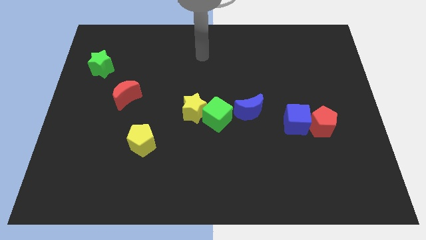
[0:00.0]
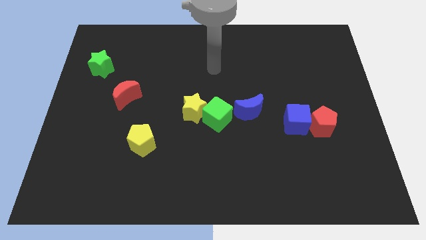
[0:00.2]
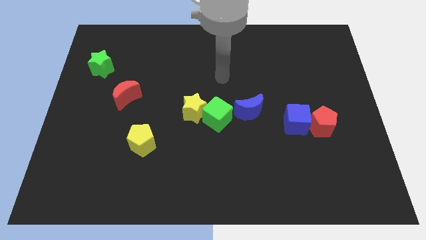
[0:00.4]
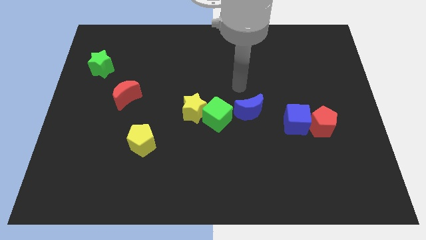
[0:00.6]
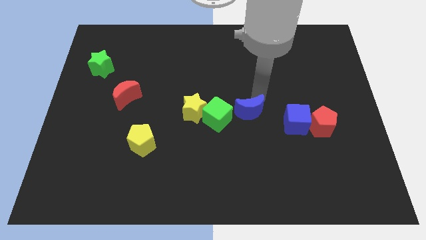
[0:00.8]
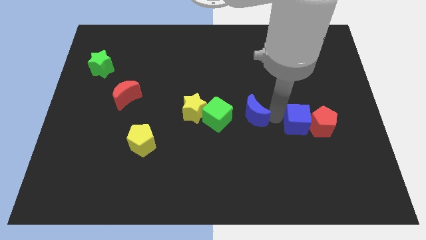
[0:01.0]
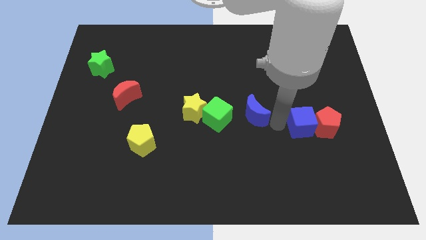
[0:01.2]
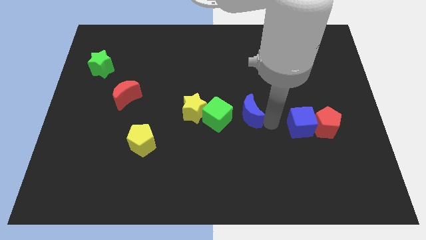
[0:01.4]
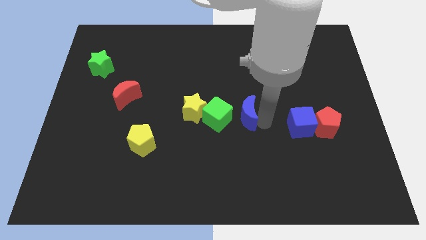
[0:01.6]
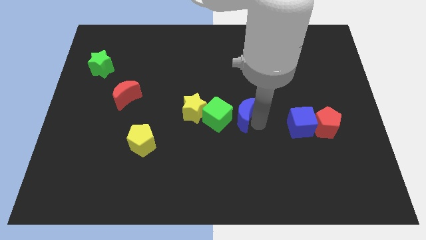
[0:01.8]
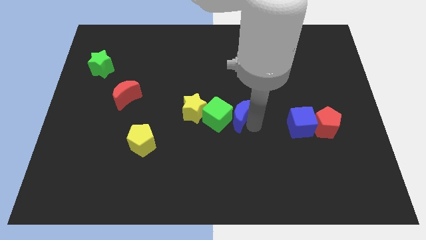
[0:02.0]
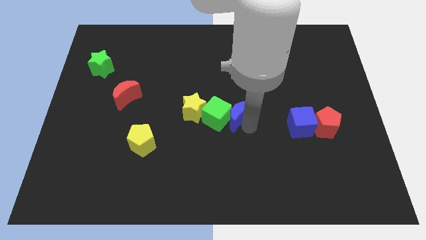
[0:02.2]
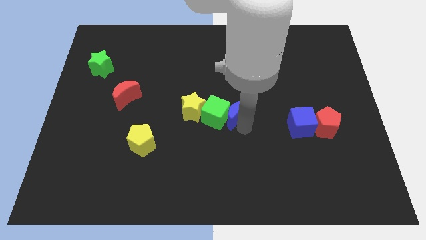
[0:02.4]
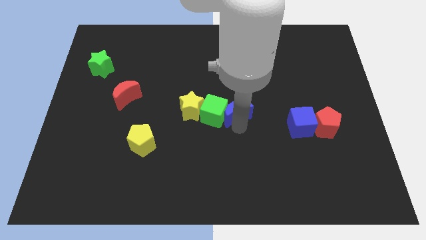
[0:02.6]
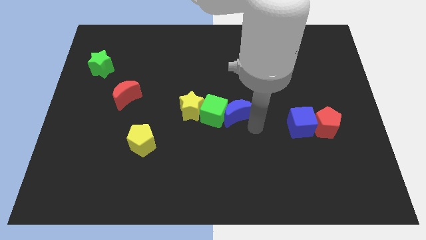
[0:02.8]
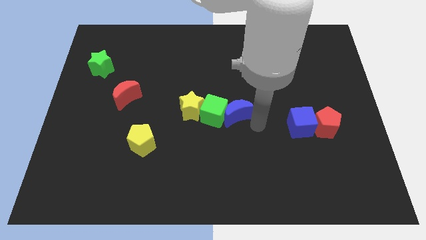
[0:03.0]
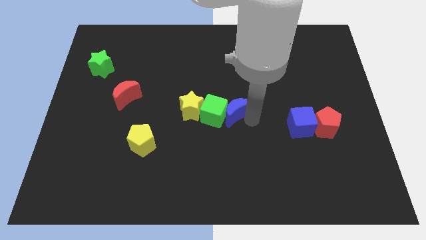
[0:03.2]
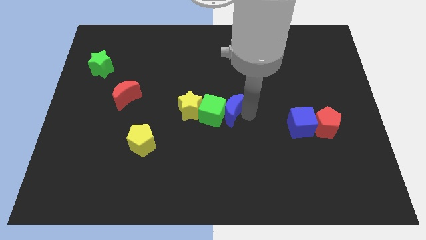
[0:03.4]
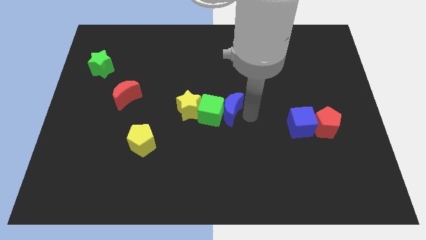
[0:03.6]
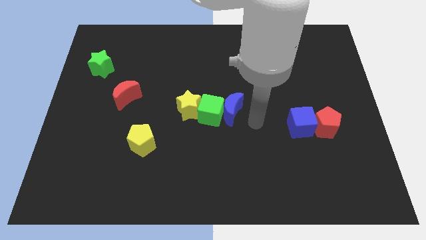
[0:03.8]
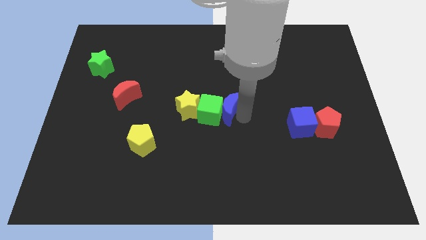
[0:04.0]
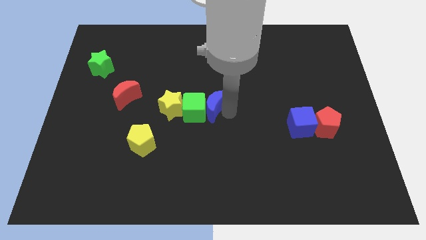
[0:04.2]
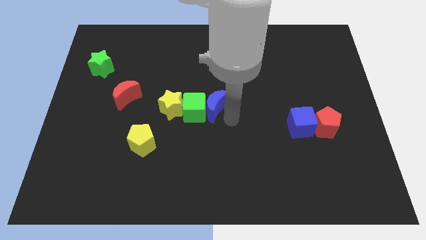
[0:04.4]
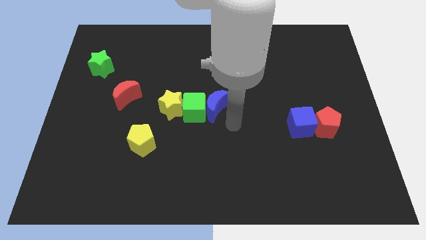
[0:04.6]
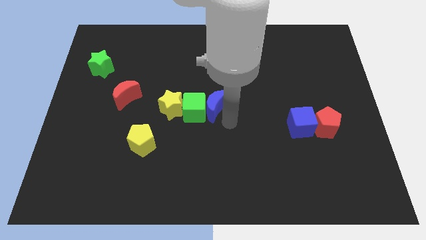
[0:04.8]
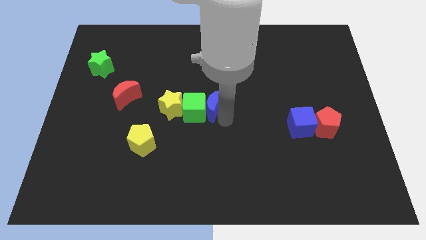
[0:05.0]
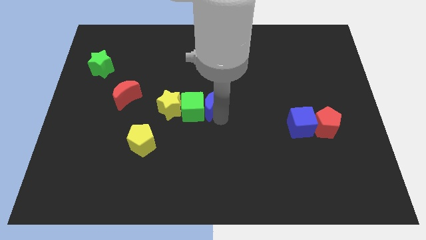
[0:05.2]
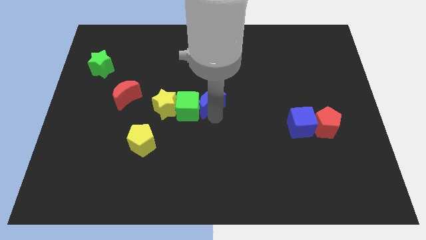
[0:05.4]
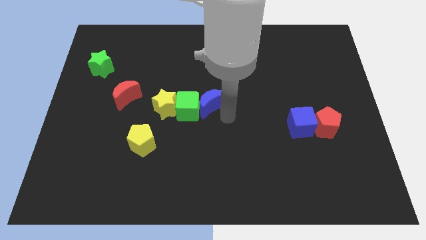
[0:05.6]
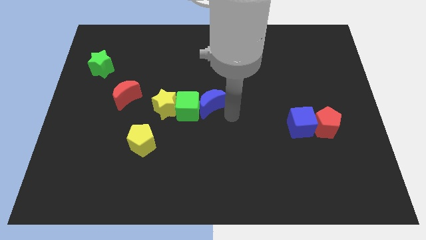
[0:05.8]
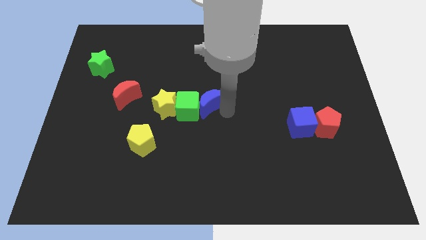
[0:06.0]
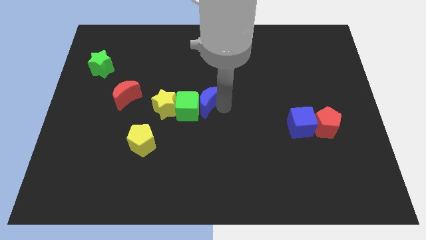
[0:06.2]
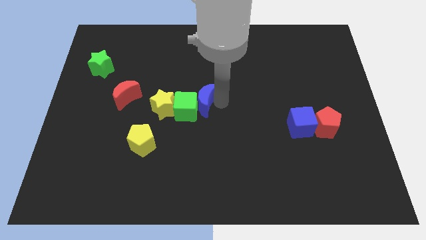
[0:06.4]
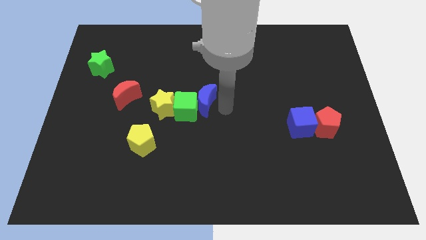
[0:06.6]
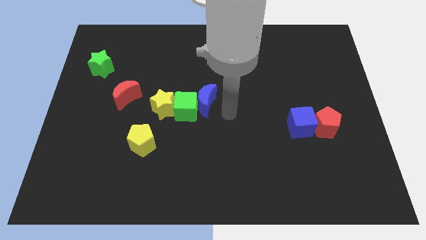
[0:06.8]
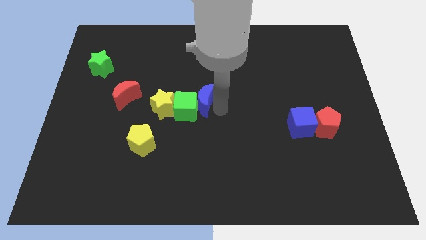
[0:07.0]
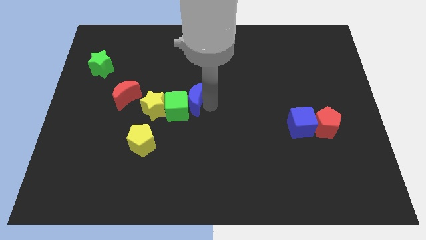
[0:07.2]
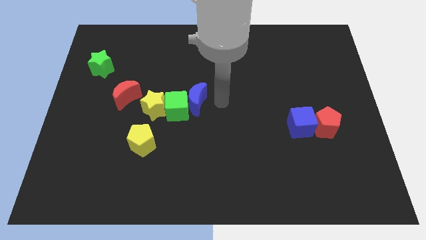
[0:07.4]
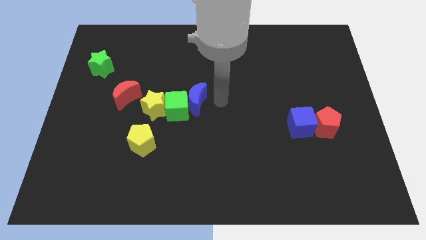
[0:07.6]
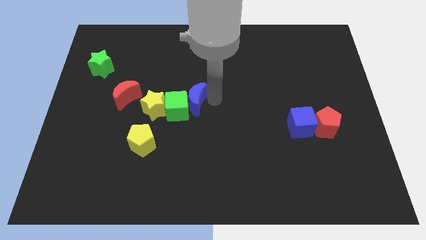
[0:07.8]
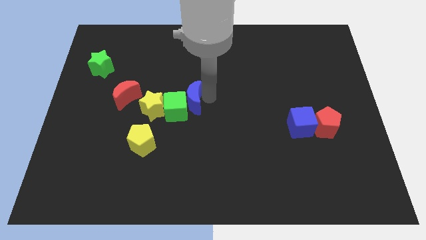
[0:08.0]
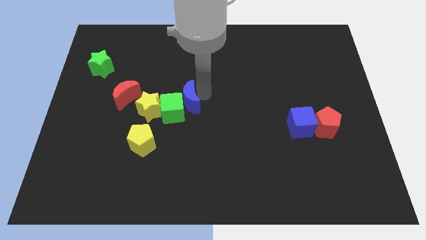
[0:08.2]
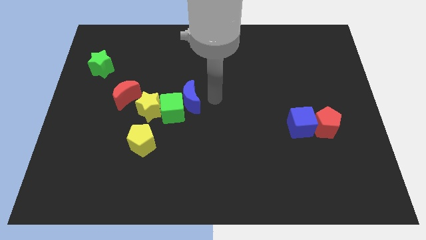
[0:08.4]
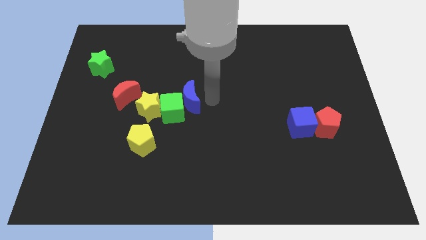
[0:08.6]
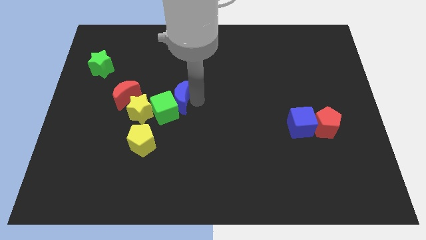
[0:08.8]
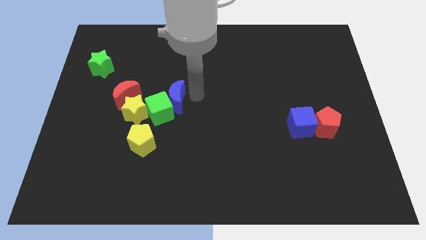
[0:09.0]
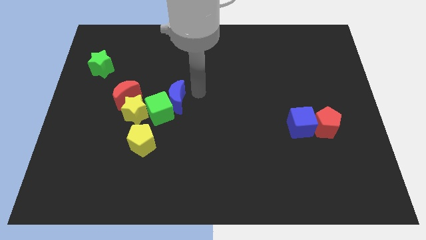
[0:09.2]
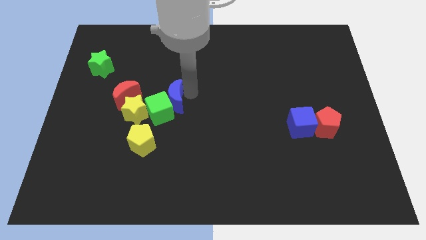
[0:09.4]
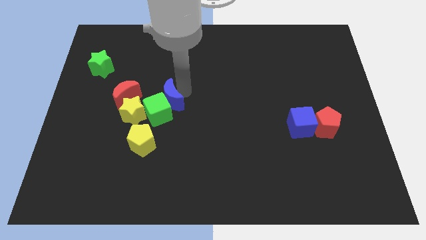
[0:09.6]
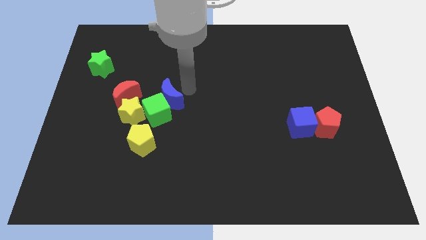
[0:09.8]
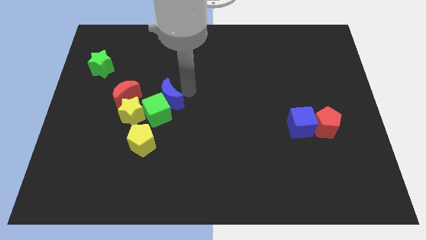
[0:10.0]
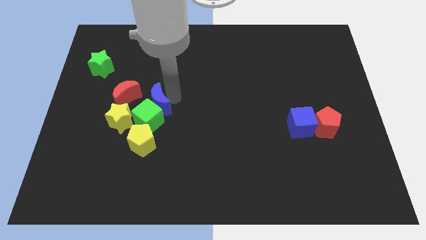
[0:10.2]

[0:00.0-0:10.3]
slide the blue moon left

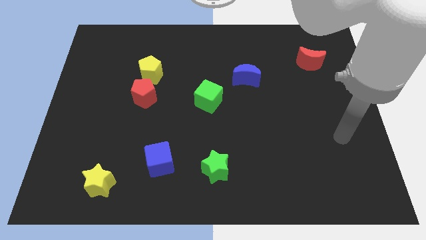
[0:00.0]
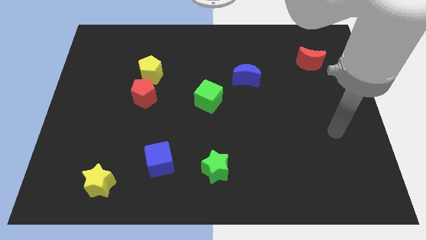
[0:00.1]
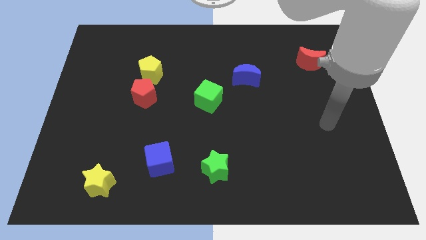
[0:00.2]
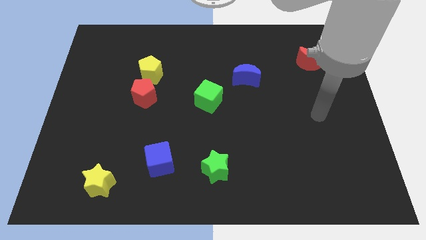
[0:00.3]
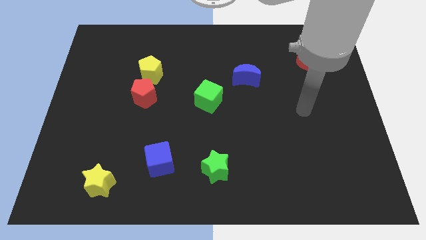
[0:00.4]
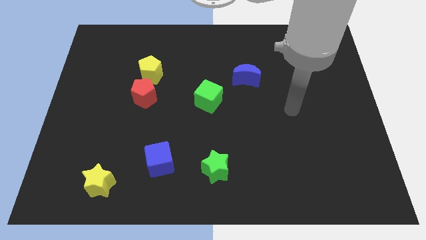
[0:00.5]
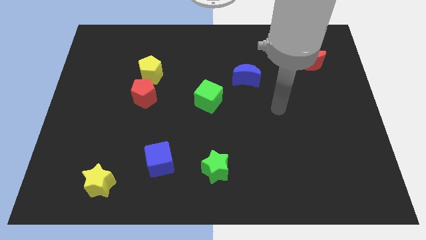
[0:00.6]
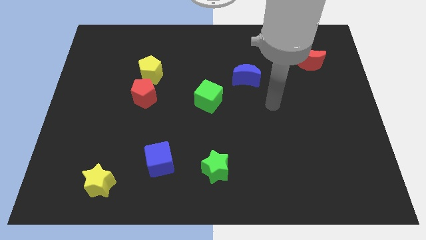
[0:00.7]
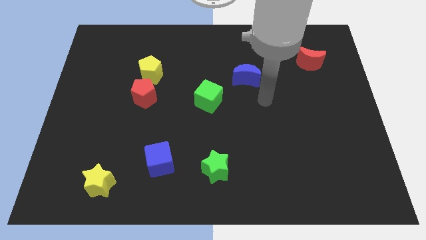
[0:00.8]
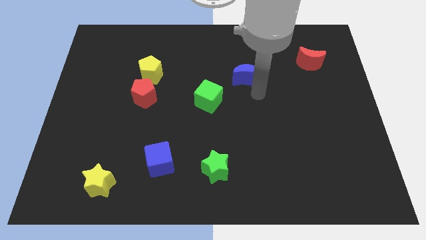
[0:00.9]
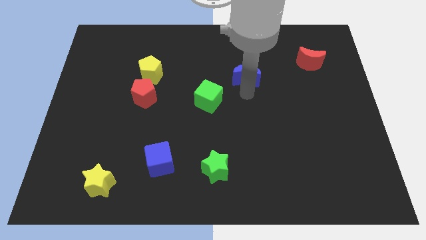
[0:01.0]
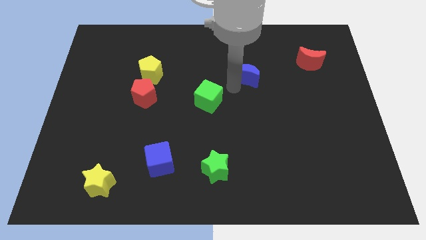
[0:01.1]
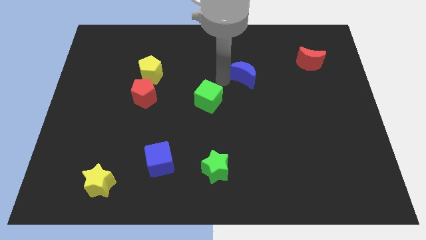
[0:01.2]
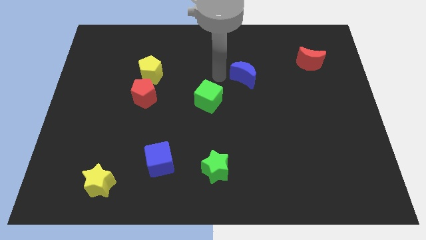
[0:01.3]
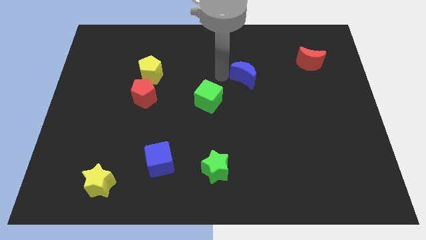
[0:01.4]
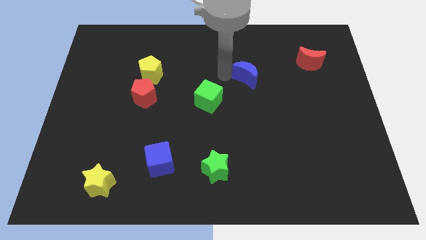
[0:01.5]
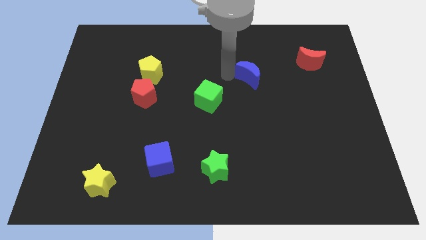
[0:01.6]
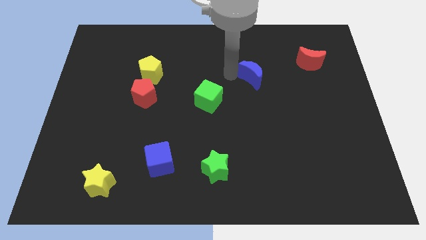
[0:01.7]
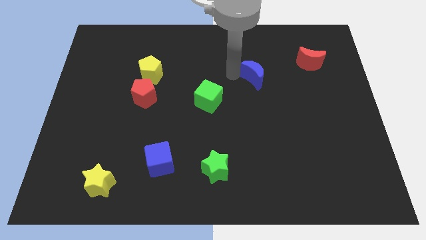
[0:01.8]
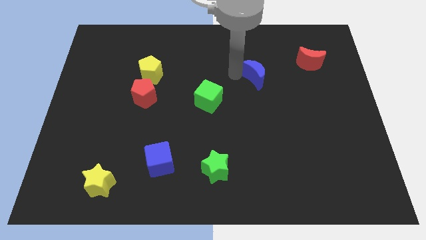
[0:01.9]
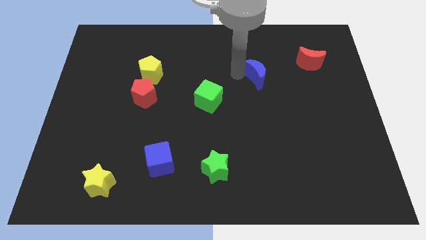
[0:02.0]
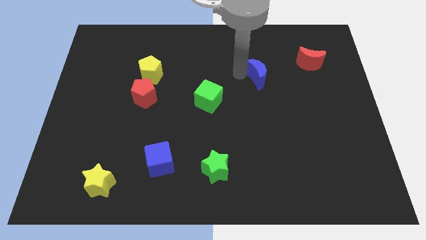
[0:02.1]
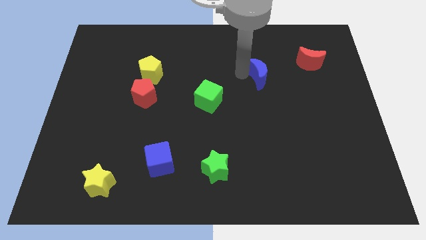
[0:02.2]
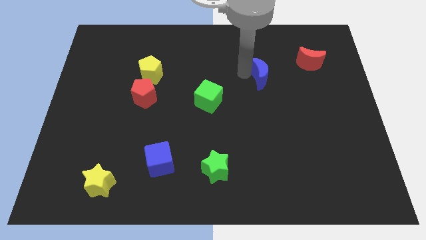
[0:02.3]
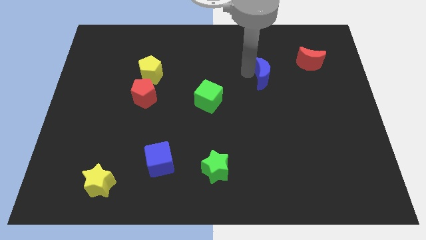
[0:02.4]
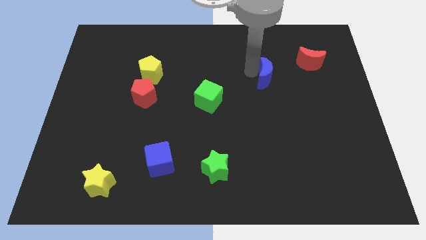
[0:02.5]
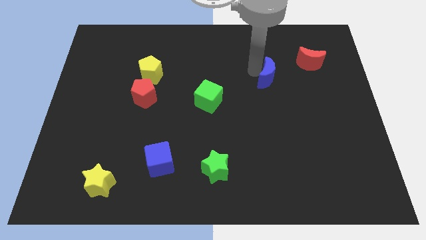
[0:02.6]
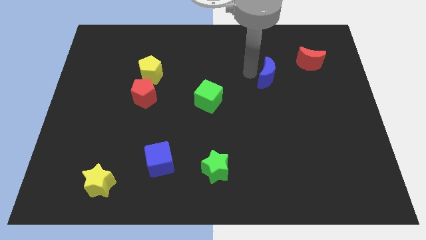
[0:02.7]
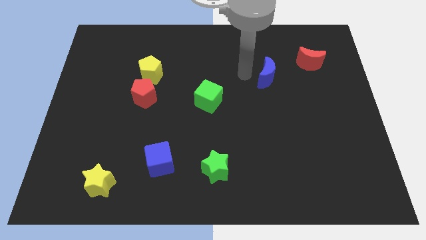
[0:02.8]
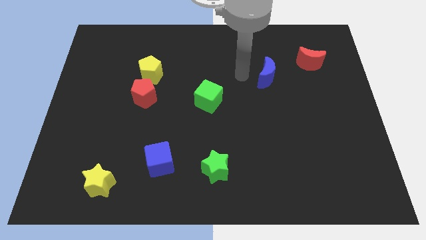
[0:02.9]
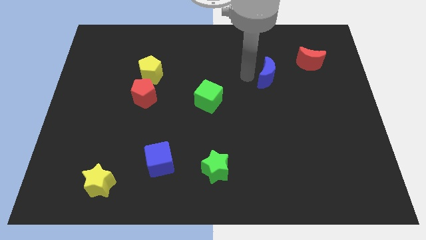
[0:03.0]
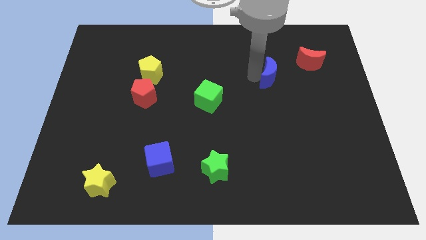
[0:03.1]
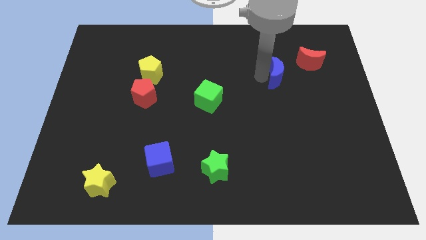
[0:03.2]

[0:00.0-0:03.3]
slide the blue moon right a bit
